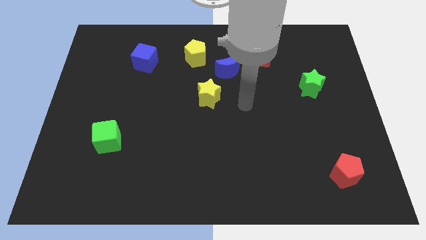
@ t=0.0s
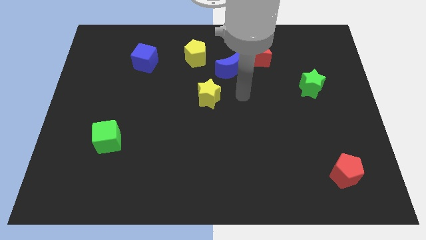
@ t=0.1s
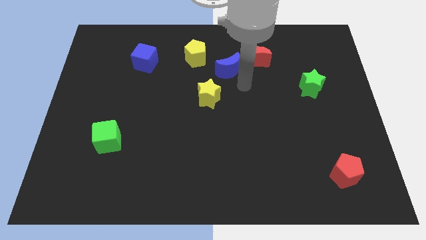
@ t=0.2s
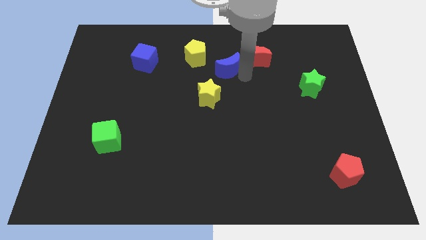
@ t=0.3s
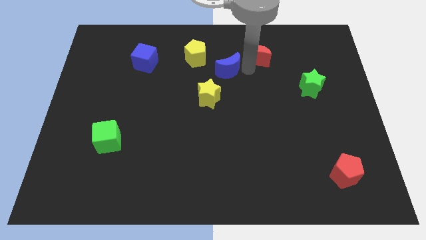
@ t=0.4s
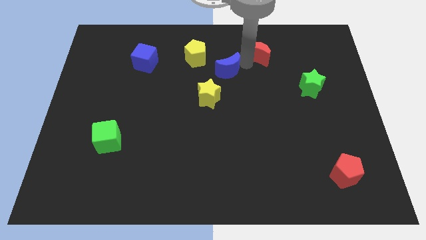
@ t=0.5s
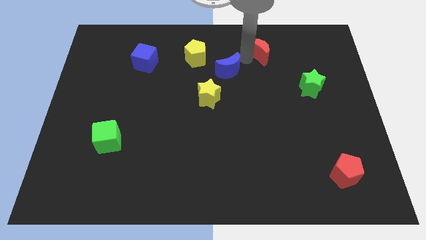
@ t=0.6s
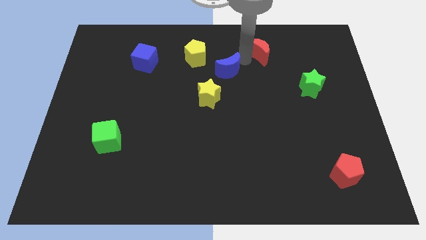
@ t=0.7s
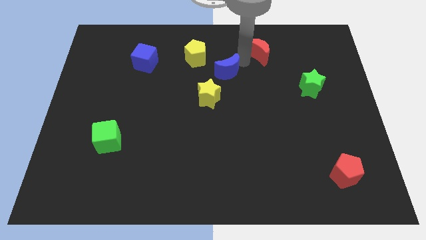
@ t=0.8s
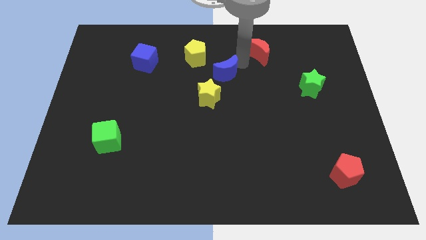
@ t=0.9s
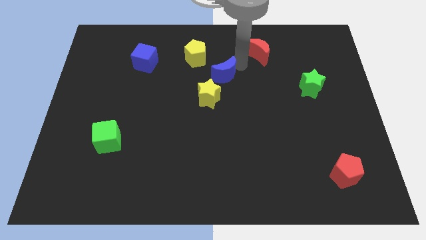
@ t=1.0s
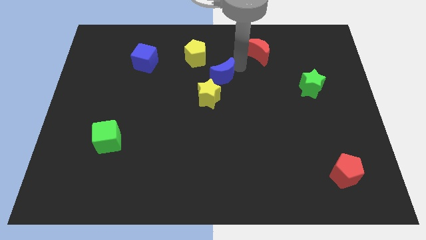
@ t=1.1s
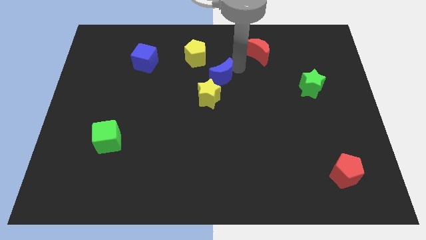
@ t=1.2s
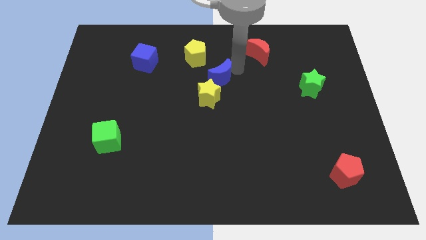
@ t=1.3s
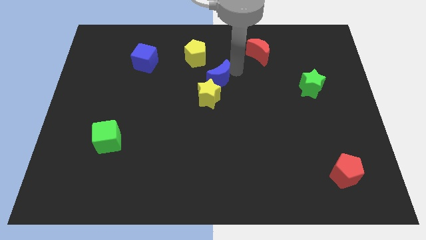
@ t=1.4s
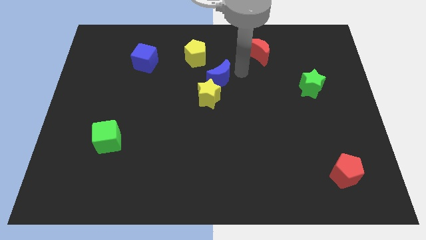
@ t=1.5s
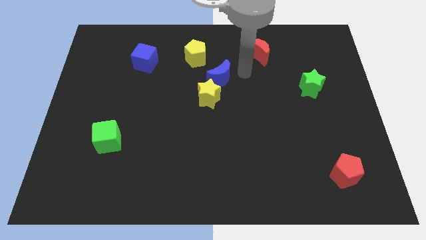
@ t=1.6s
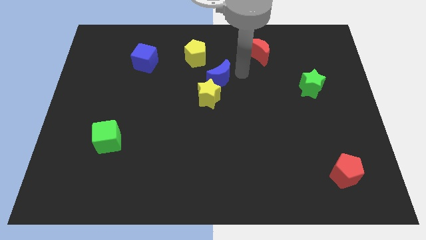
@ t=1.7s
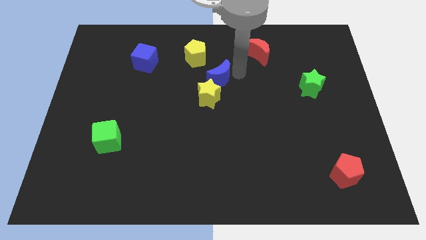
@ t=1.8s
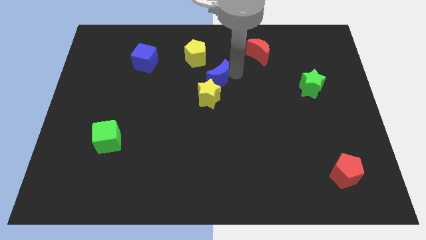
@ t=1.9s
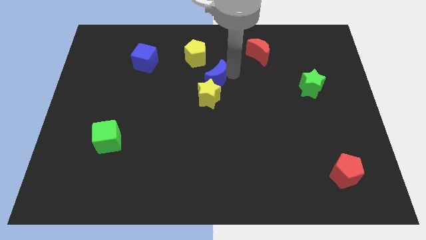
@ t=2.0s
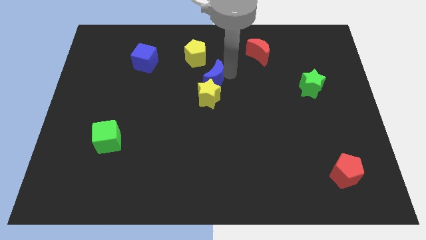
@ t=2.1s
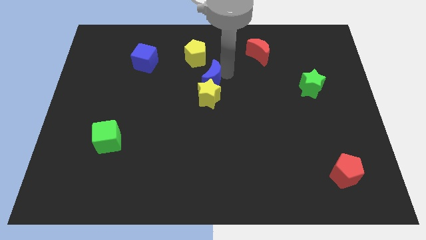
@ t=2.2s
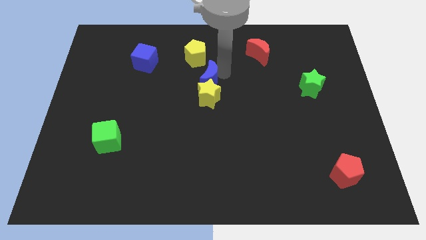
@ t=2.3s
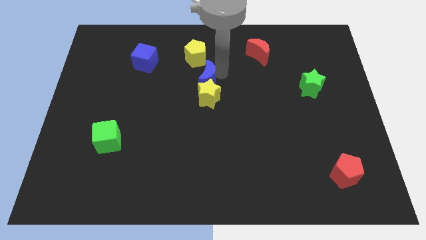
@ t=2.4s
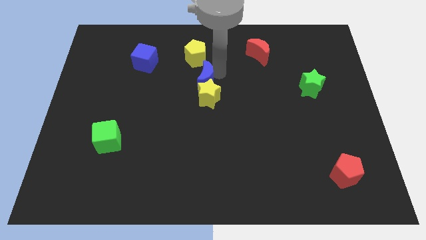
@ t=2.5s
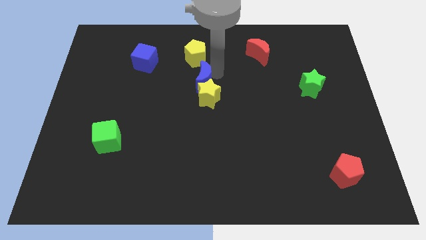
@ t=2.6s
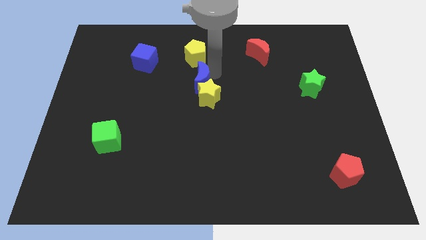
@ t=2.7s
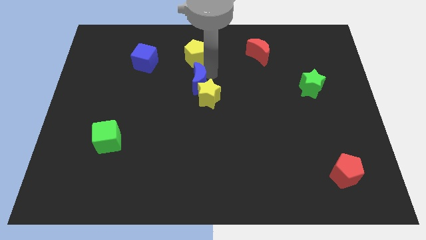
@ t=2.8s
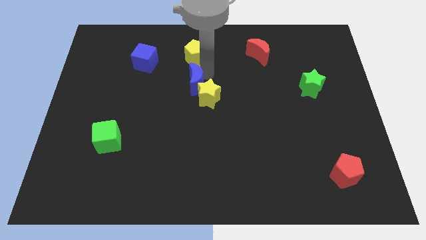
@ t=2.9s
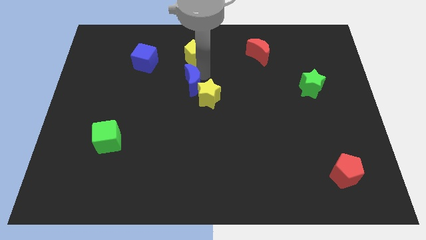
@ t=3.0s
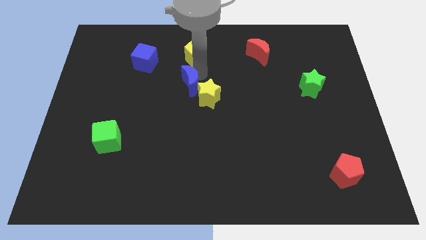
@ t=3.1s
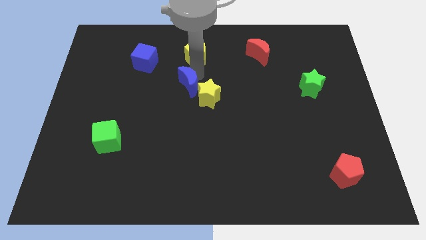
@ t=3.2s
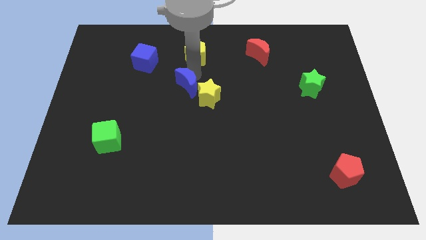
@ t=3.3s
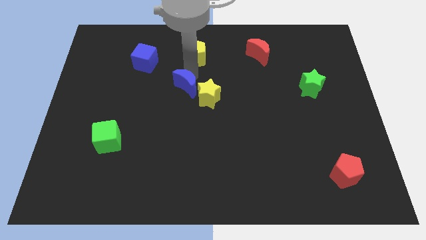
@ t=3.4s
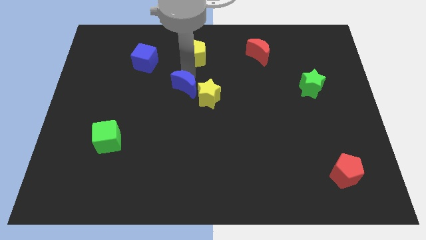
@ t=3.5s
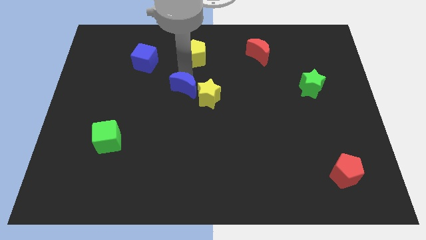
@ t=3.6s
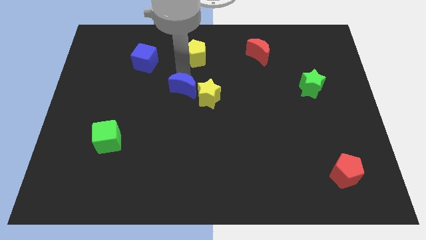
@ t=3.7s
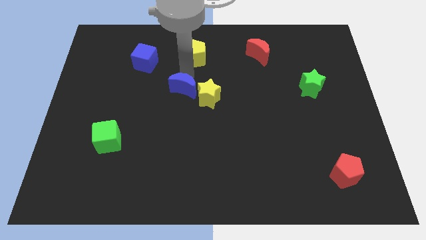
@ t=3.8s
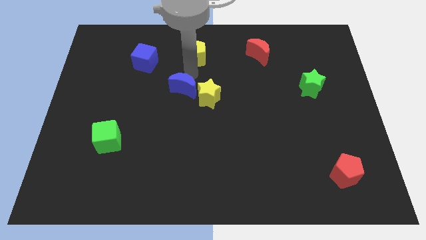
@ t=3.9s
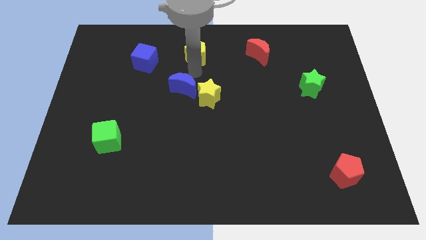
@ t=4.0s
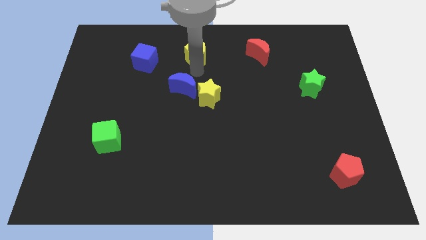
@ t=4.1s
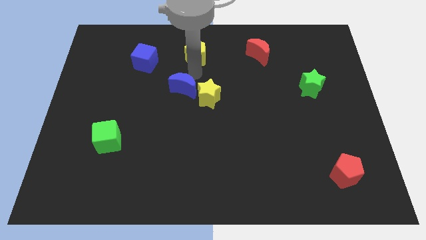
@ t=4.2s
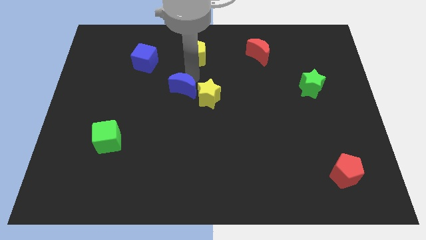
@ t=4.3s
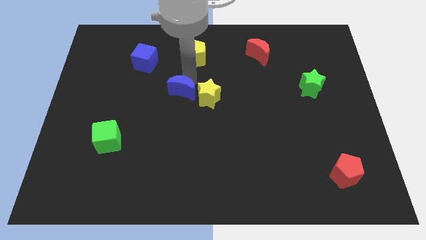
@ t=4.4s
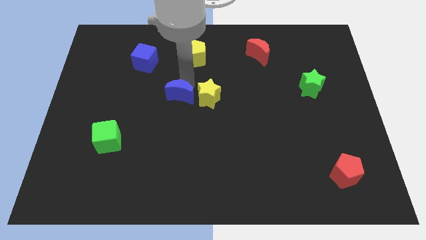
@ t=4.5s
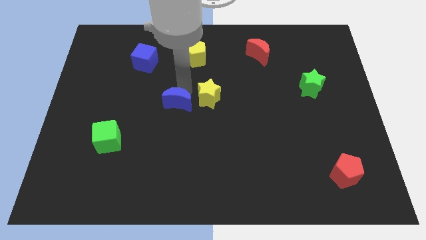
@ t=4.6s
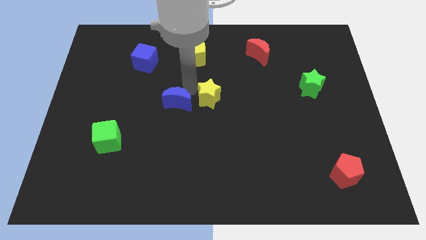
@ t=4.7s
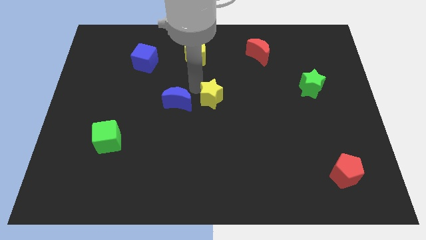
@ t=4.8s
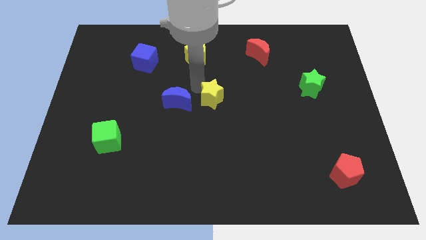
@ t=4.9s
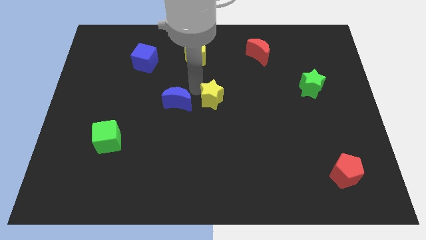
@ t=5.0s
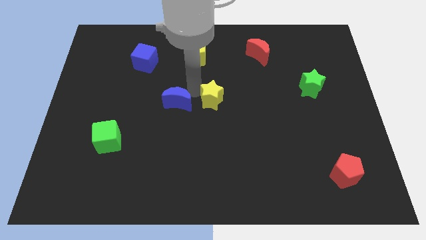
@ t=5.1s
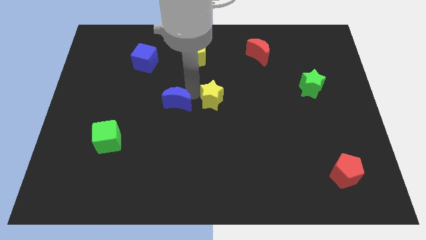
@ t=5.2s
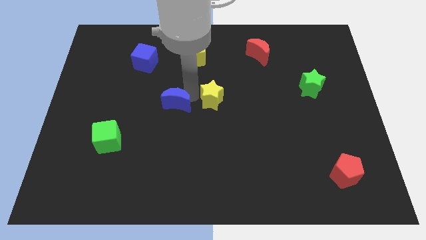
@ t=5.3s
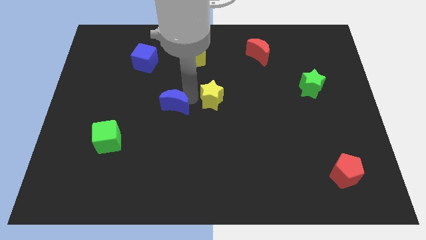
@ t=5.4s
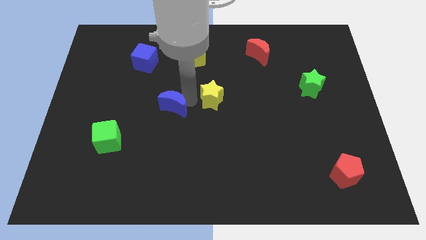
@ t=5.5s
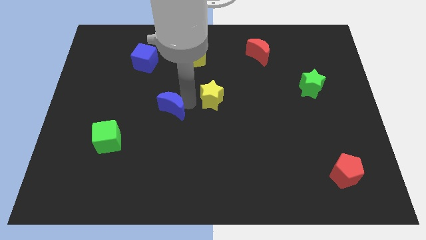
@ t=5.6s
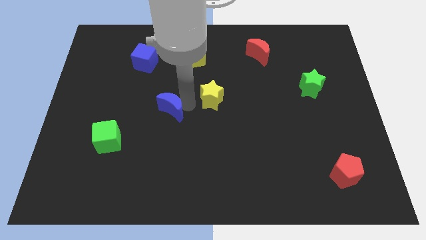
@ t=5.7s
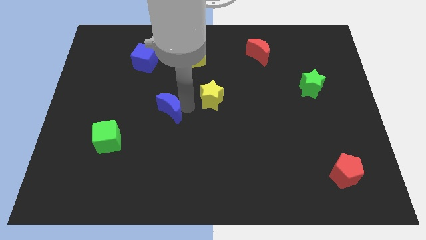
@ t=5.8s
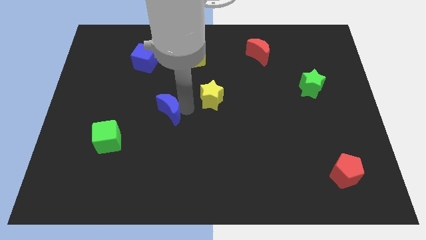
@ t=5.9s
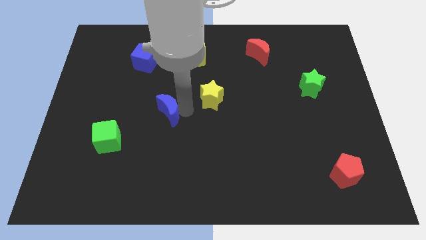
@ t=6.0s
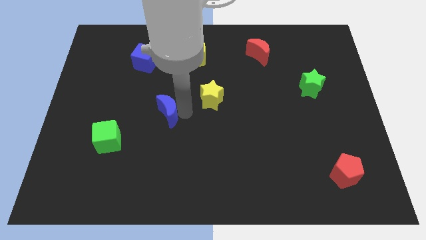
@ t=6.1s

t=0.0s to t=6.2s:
move the blue moon down and to the left diagonally

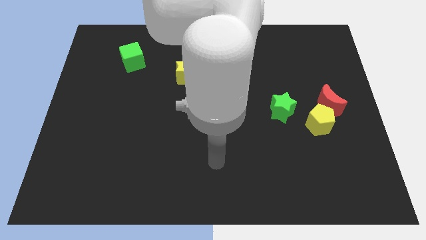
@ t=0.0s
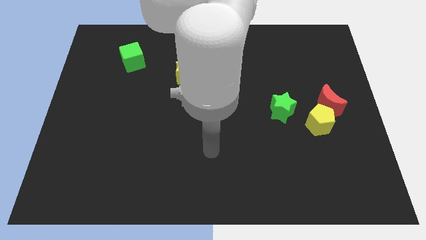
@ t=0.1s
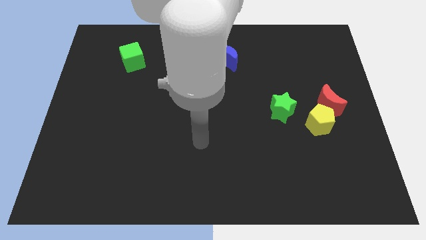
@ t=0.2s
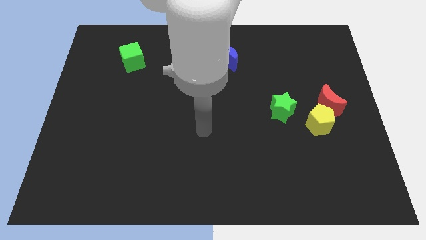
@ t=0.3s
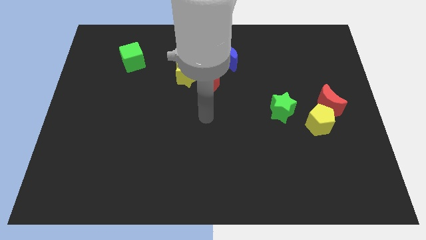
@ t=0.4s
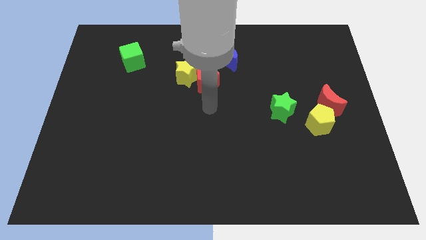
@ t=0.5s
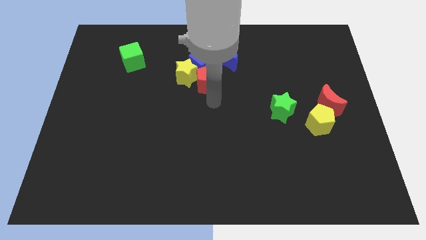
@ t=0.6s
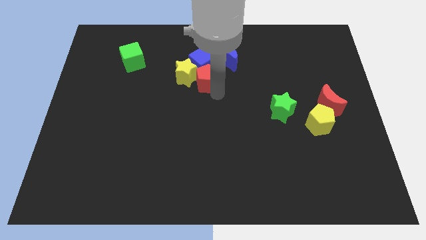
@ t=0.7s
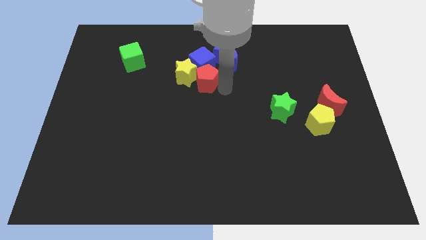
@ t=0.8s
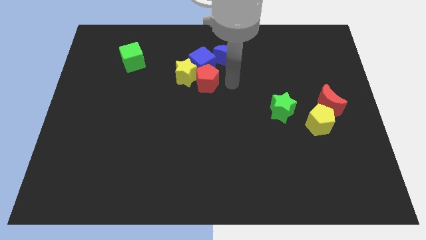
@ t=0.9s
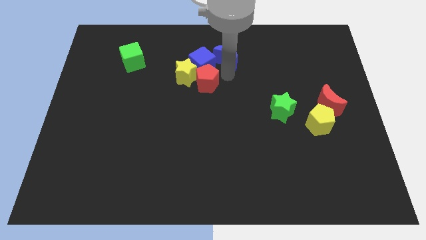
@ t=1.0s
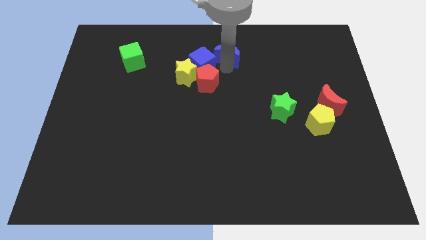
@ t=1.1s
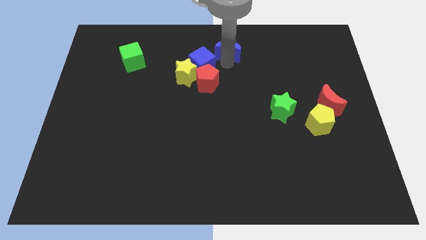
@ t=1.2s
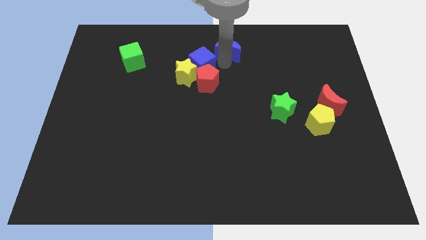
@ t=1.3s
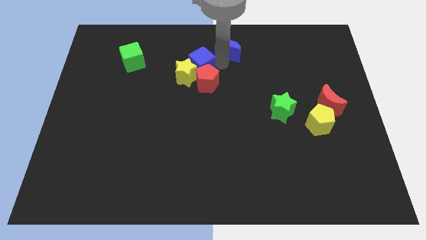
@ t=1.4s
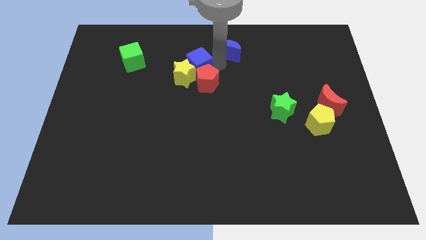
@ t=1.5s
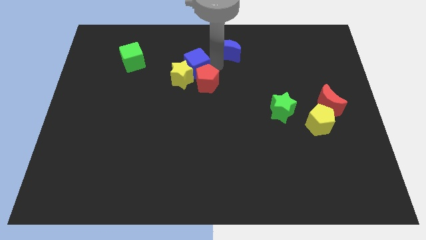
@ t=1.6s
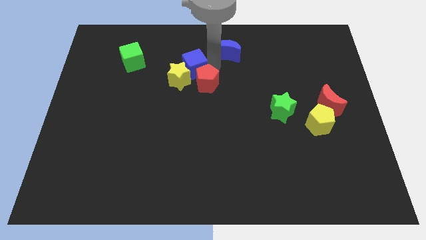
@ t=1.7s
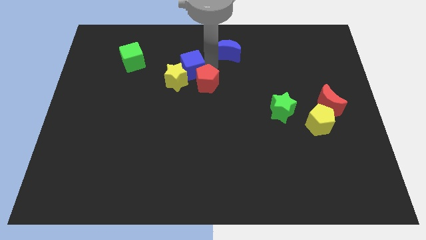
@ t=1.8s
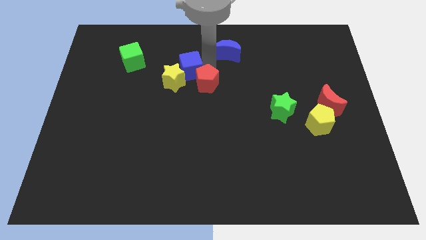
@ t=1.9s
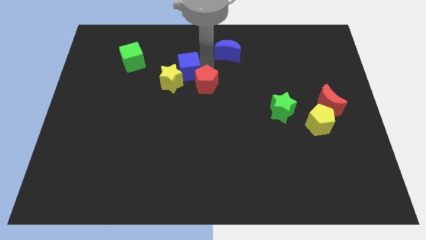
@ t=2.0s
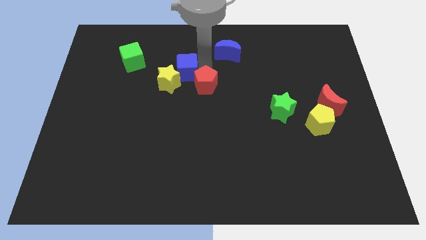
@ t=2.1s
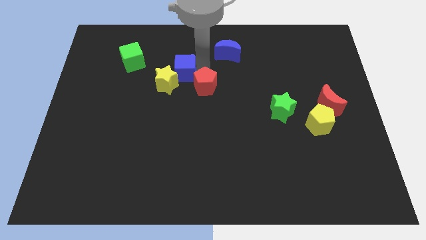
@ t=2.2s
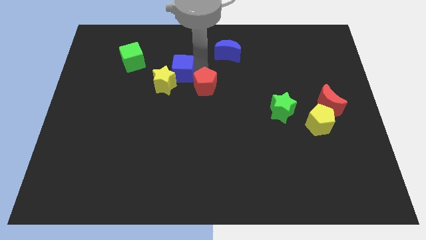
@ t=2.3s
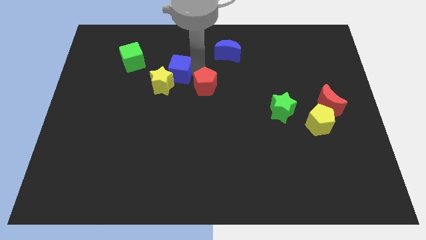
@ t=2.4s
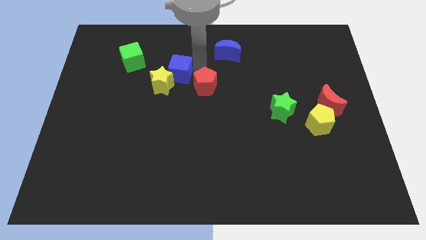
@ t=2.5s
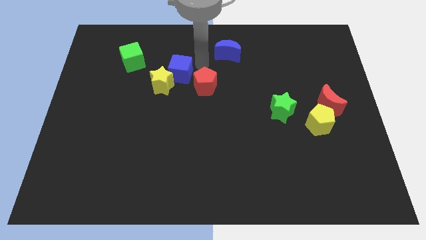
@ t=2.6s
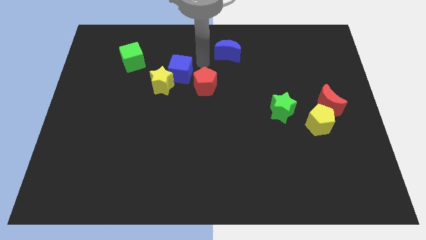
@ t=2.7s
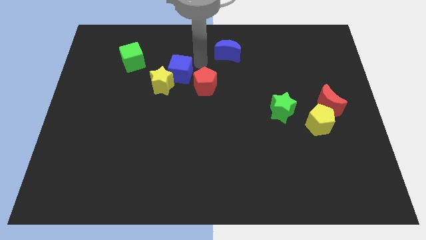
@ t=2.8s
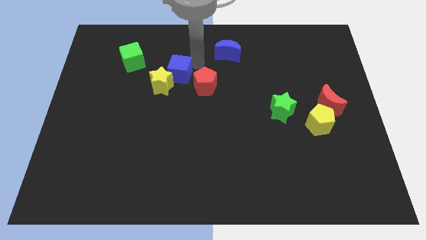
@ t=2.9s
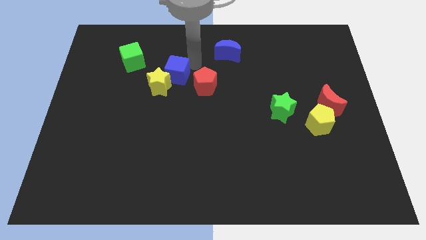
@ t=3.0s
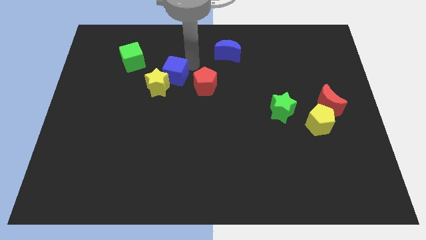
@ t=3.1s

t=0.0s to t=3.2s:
slightly move the blue cube diagonally downwards and to the left
